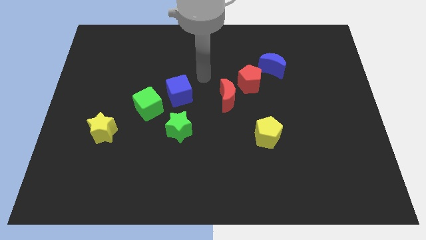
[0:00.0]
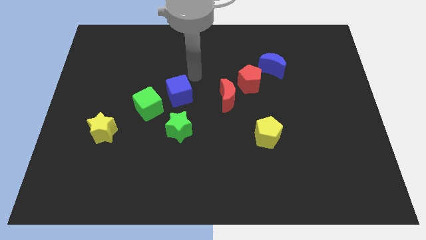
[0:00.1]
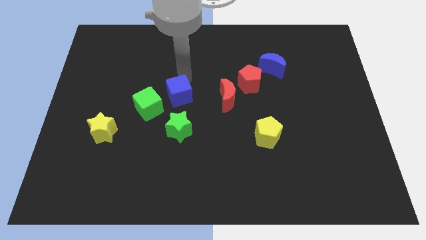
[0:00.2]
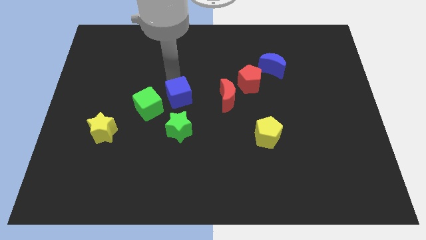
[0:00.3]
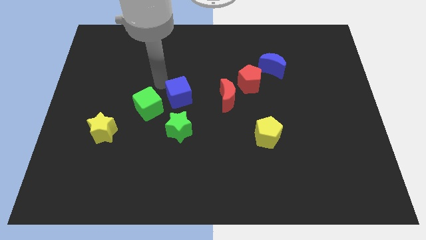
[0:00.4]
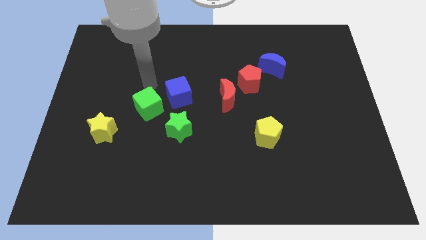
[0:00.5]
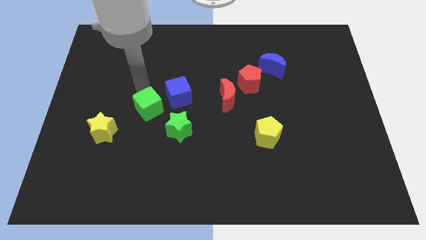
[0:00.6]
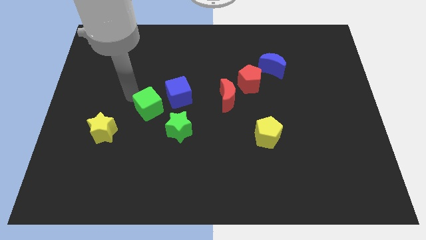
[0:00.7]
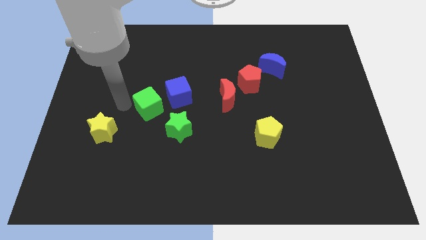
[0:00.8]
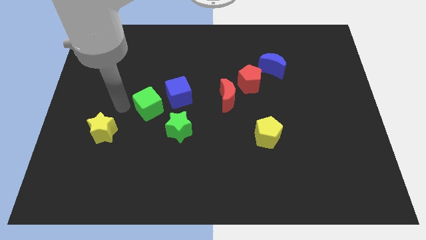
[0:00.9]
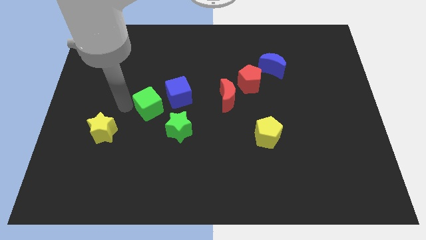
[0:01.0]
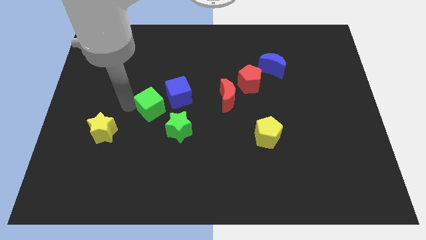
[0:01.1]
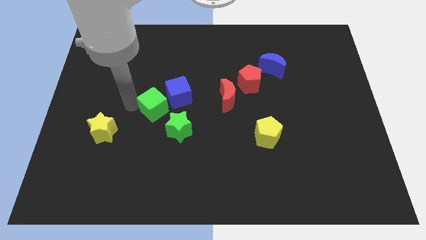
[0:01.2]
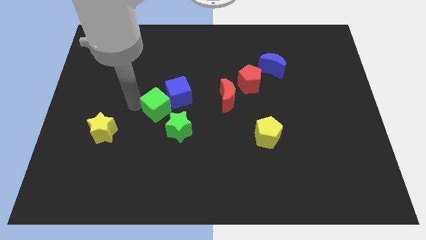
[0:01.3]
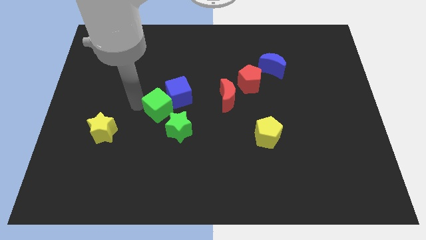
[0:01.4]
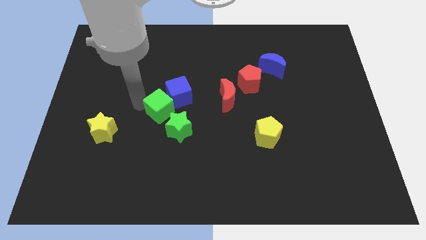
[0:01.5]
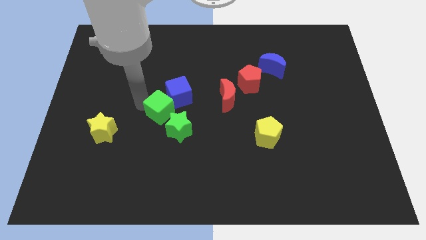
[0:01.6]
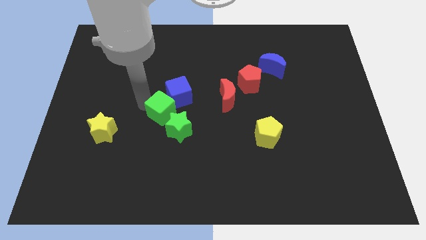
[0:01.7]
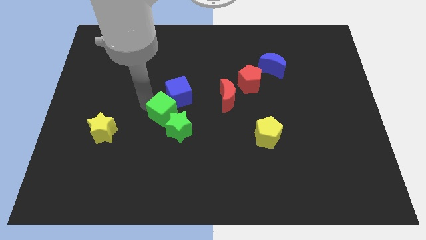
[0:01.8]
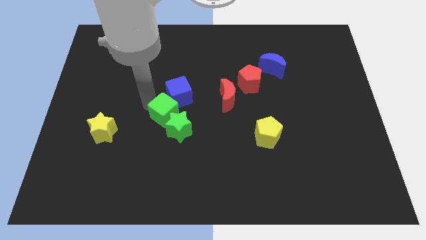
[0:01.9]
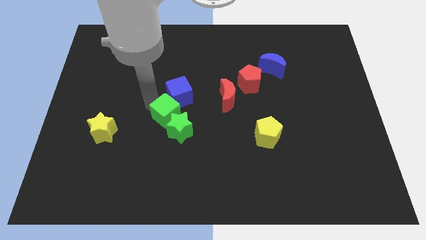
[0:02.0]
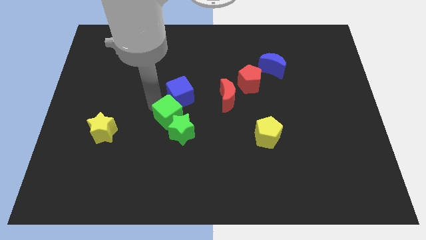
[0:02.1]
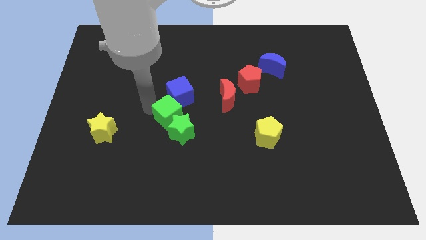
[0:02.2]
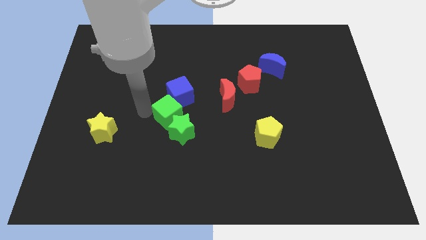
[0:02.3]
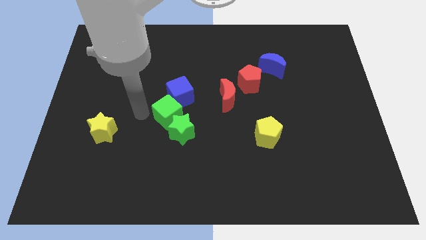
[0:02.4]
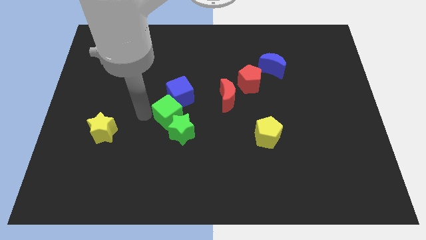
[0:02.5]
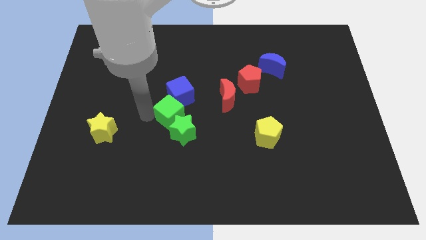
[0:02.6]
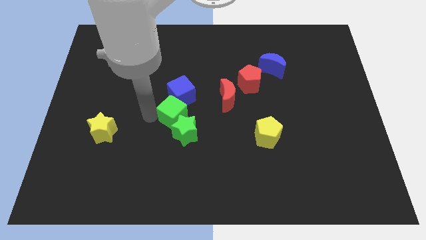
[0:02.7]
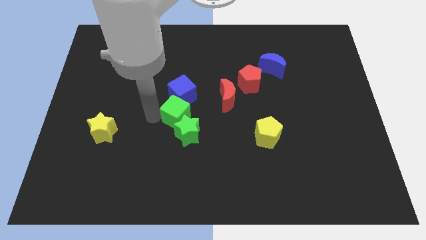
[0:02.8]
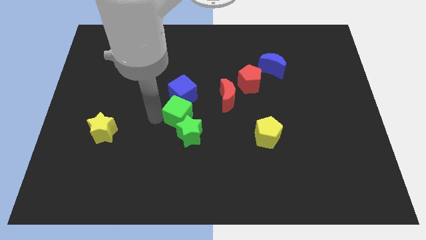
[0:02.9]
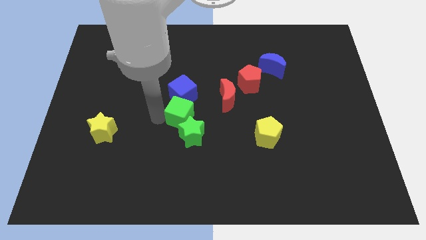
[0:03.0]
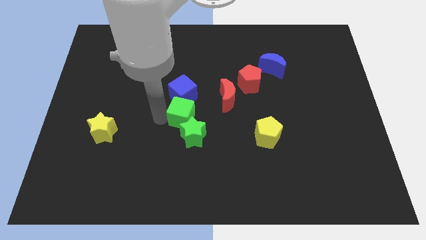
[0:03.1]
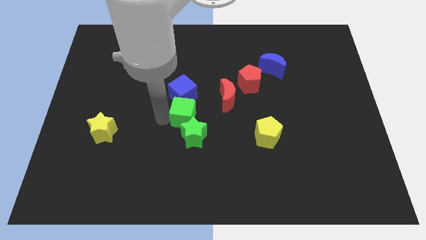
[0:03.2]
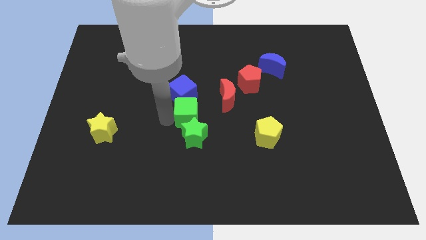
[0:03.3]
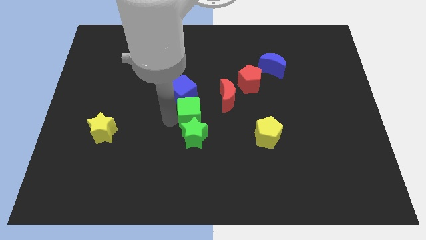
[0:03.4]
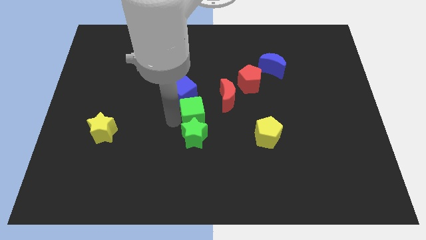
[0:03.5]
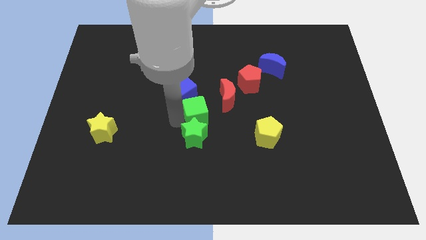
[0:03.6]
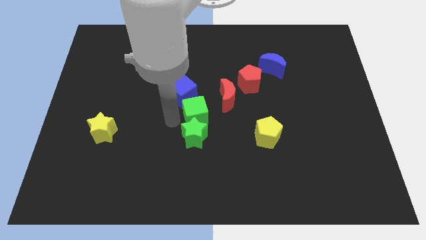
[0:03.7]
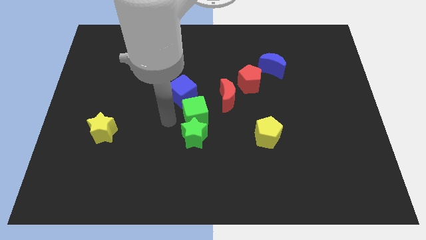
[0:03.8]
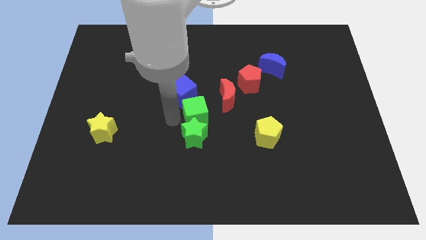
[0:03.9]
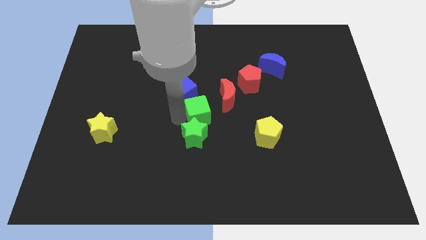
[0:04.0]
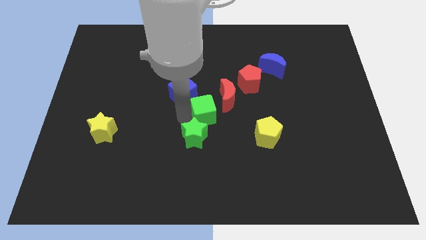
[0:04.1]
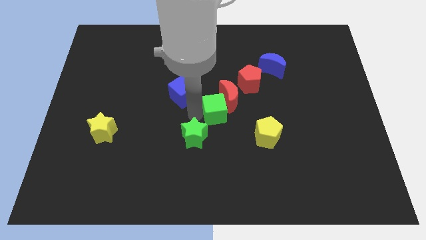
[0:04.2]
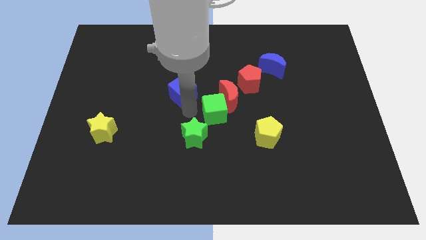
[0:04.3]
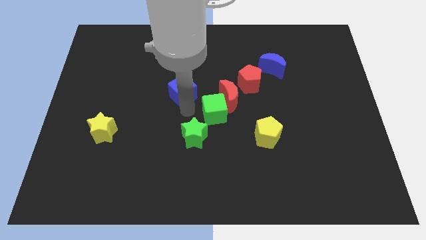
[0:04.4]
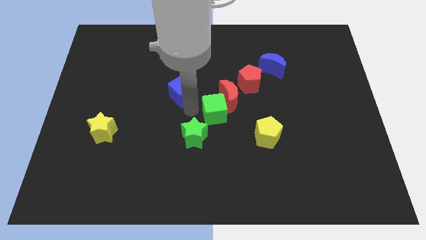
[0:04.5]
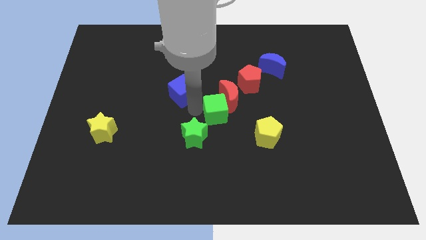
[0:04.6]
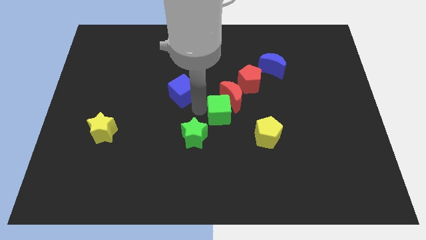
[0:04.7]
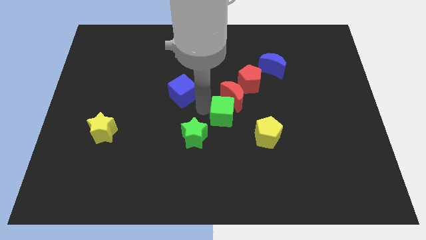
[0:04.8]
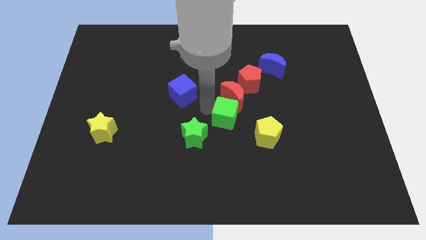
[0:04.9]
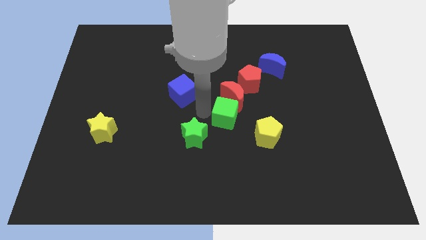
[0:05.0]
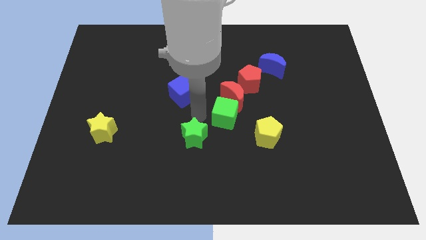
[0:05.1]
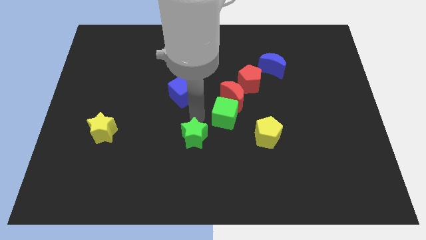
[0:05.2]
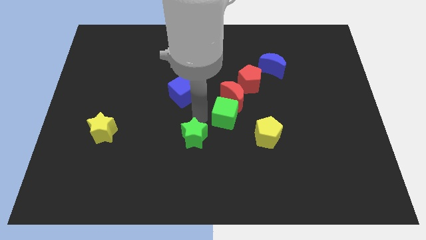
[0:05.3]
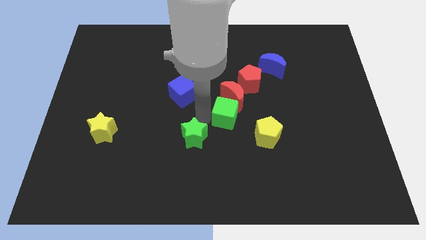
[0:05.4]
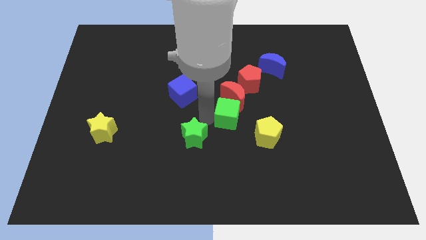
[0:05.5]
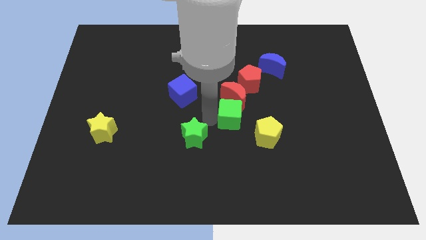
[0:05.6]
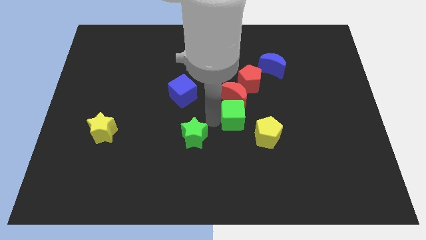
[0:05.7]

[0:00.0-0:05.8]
move the green cube to the bottom right of the red moon

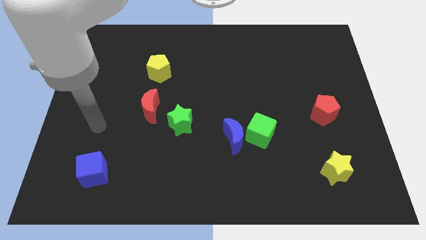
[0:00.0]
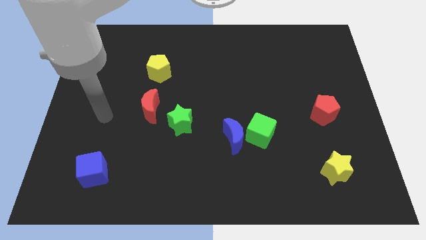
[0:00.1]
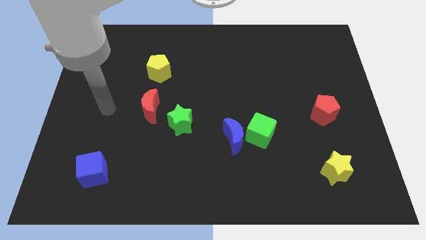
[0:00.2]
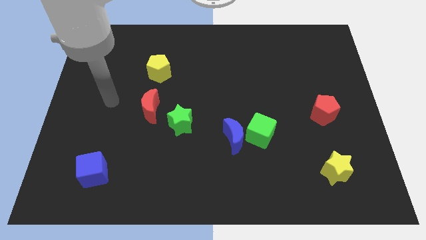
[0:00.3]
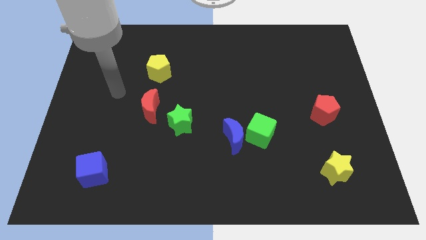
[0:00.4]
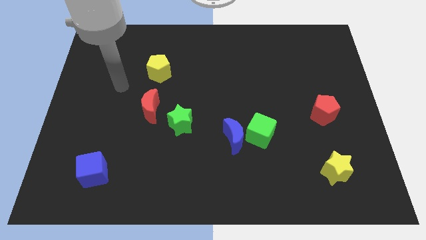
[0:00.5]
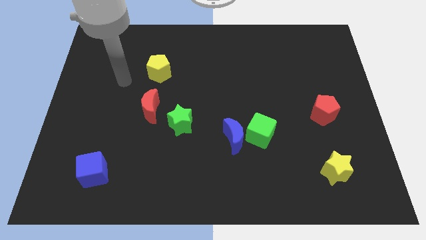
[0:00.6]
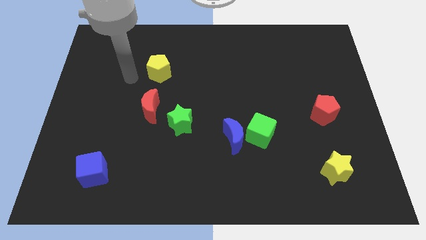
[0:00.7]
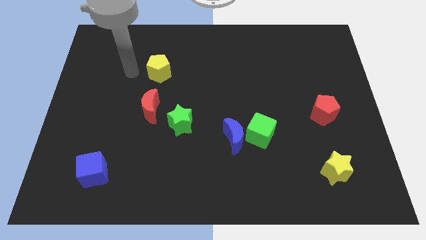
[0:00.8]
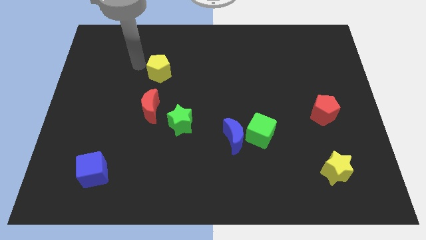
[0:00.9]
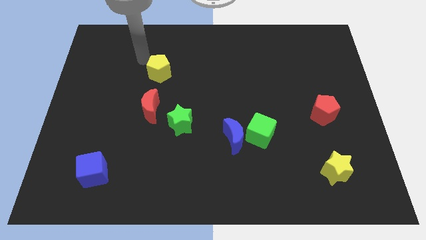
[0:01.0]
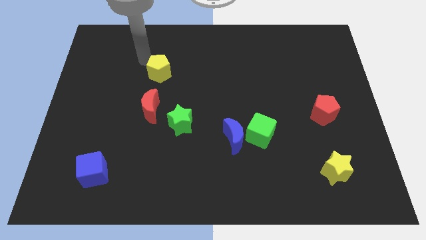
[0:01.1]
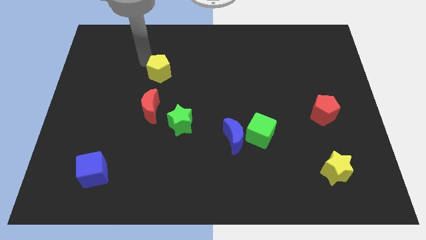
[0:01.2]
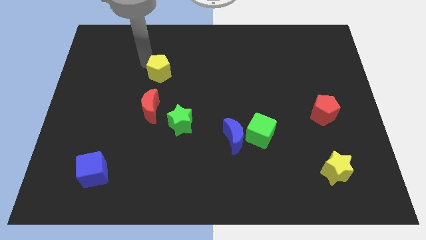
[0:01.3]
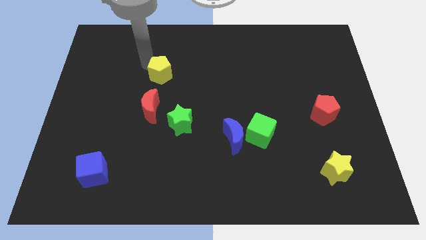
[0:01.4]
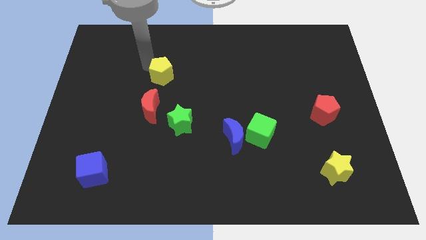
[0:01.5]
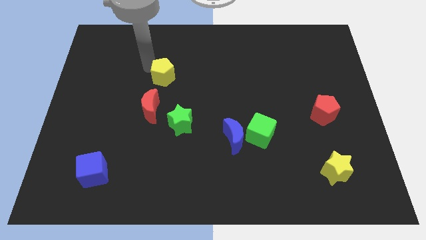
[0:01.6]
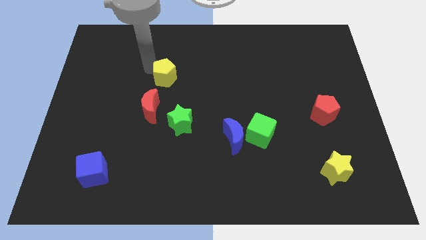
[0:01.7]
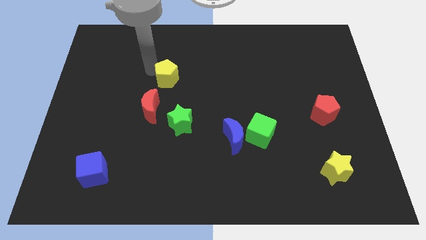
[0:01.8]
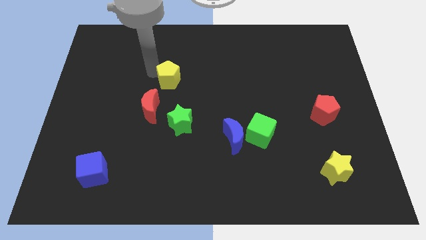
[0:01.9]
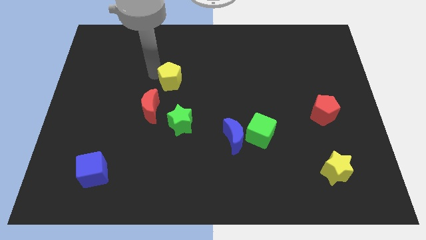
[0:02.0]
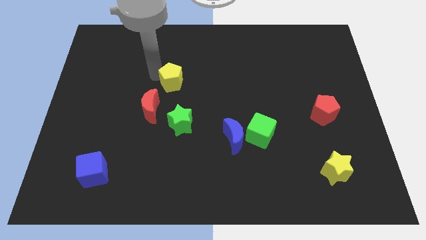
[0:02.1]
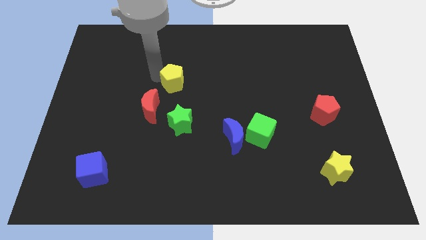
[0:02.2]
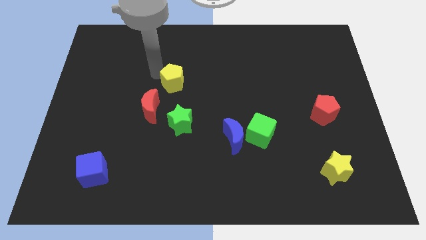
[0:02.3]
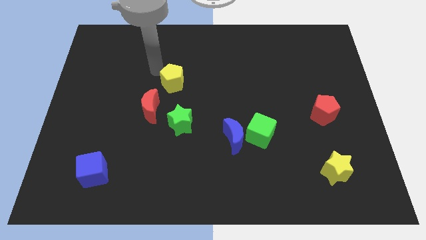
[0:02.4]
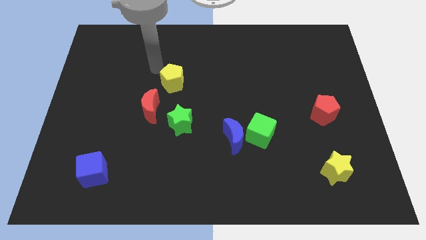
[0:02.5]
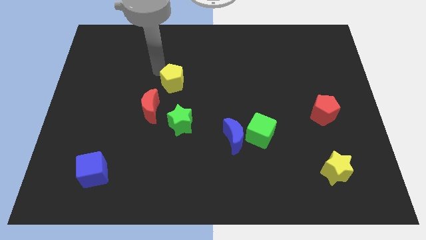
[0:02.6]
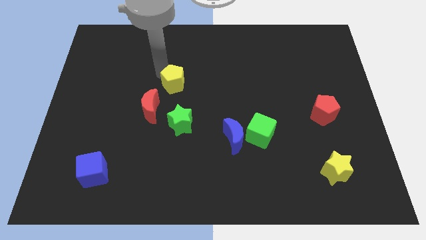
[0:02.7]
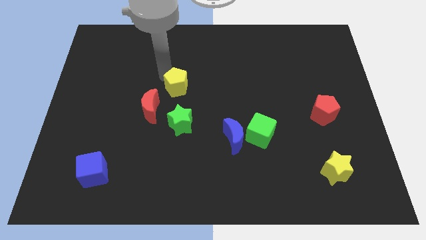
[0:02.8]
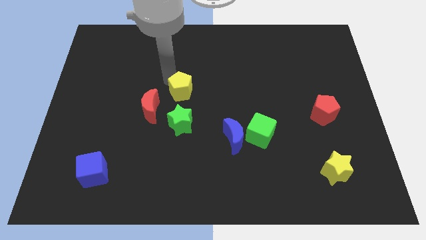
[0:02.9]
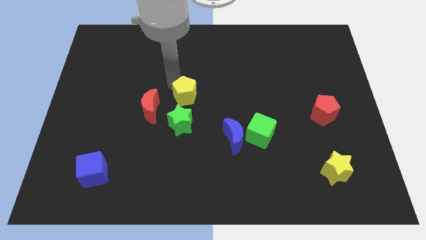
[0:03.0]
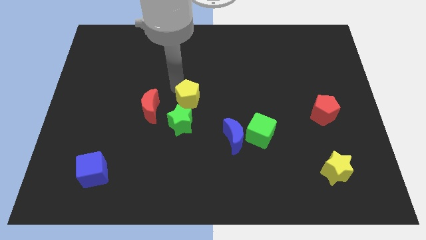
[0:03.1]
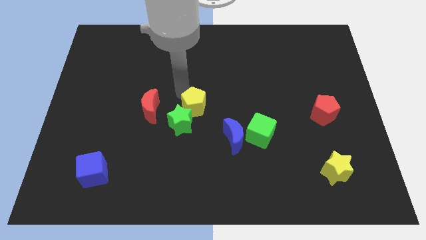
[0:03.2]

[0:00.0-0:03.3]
move the yellow pentagon to the top left side of the blue moon
